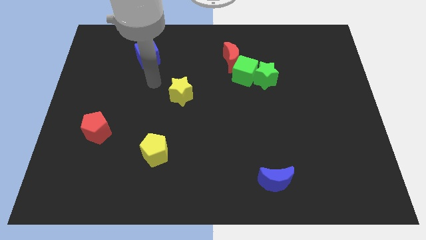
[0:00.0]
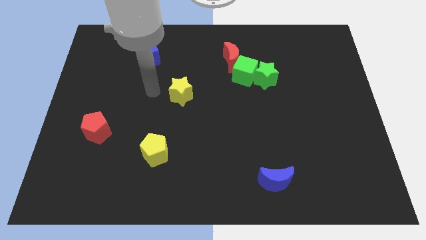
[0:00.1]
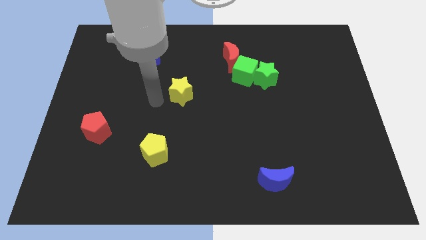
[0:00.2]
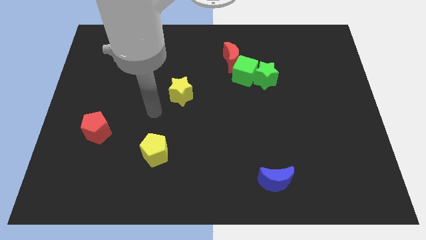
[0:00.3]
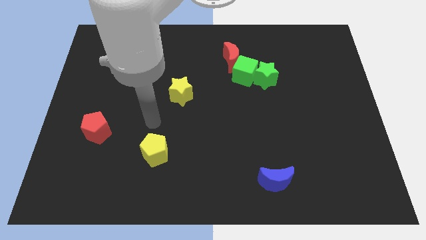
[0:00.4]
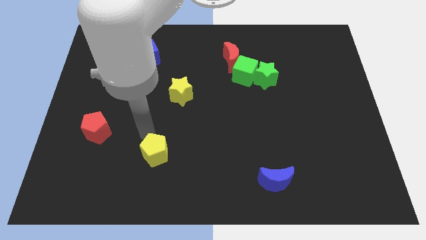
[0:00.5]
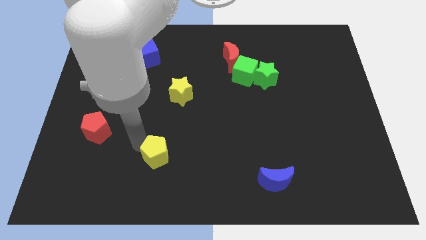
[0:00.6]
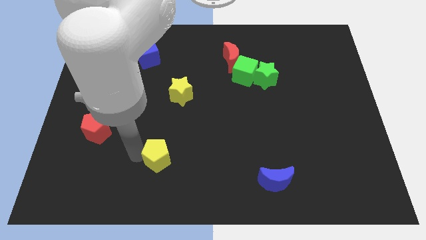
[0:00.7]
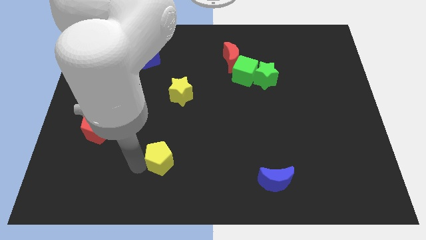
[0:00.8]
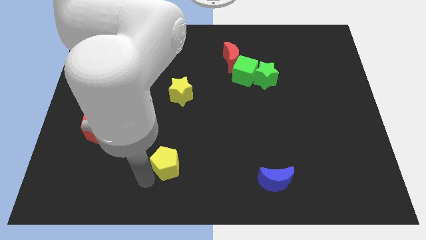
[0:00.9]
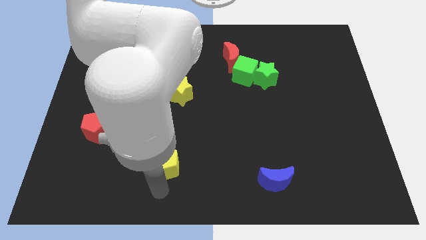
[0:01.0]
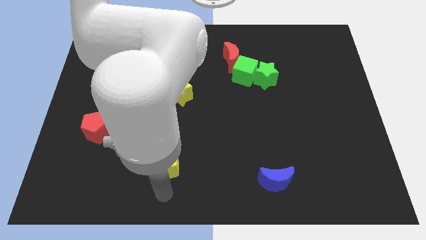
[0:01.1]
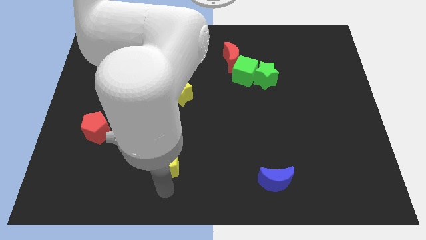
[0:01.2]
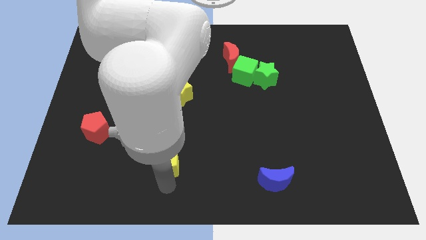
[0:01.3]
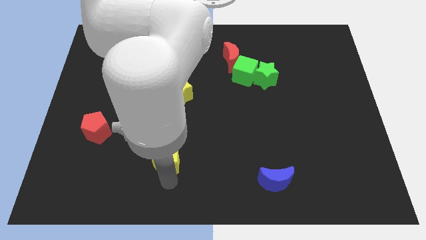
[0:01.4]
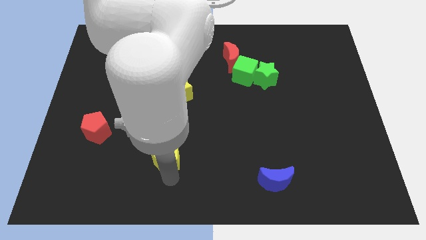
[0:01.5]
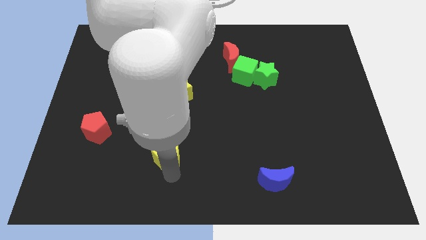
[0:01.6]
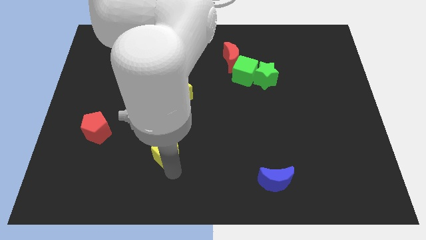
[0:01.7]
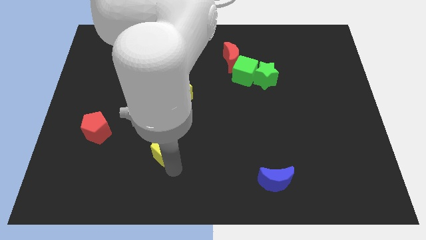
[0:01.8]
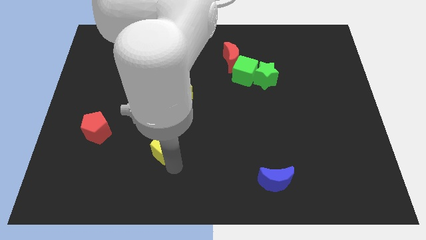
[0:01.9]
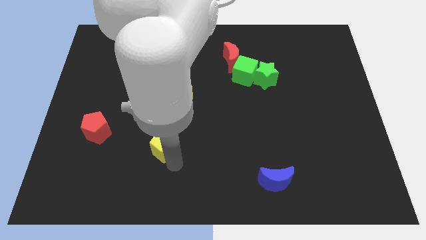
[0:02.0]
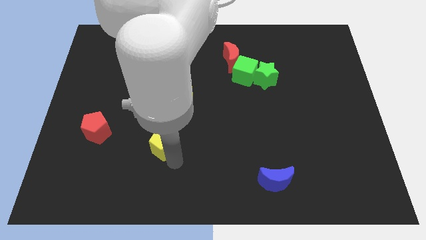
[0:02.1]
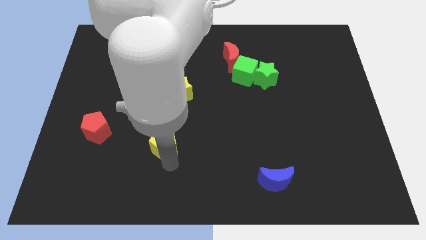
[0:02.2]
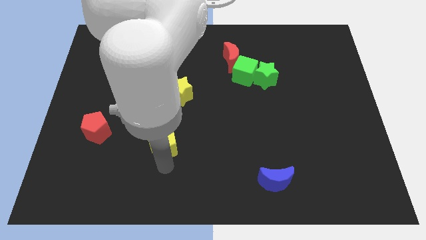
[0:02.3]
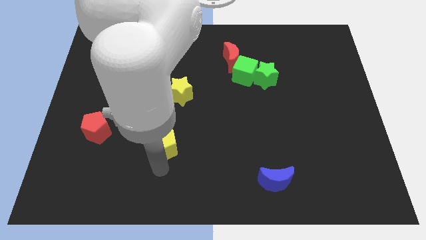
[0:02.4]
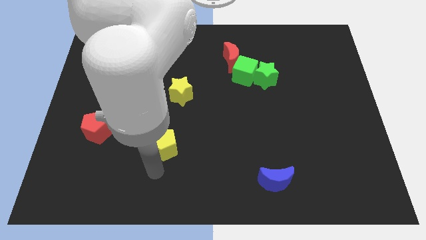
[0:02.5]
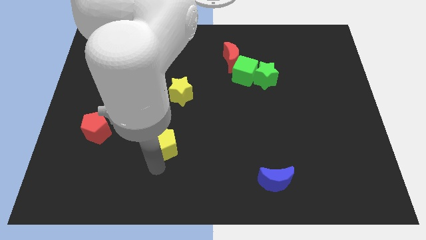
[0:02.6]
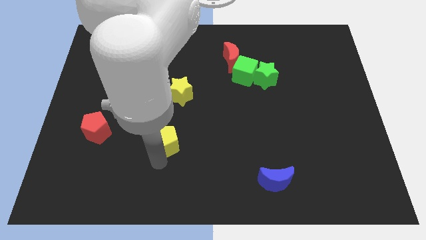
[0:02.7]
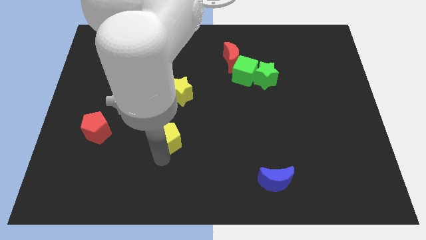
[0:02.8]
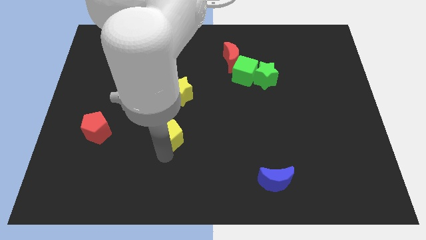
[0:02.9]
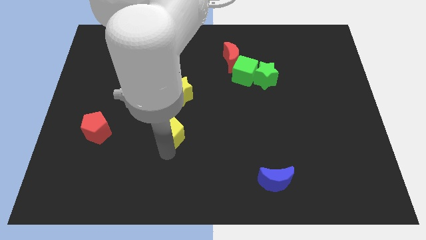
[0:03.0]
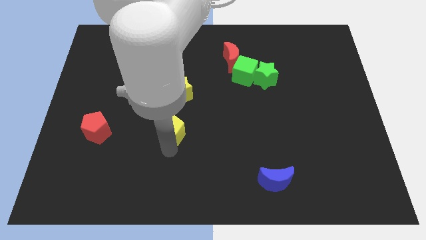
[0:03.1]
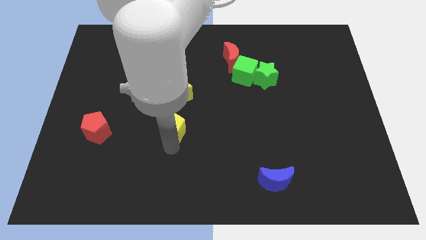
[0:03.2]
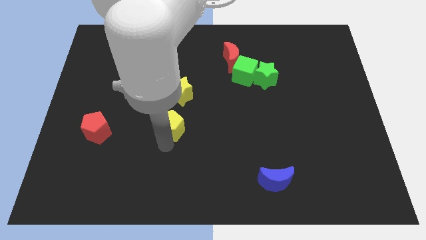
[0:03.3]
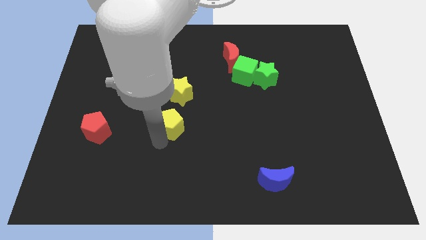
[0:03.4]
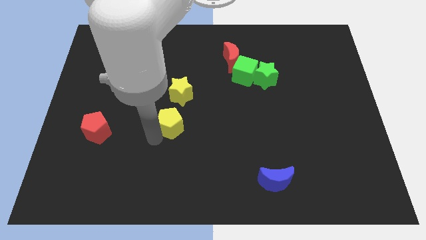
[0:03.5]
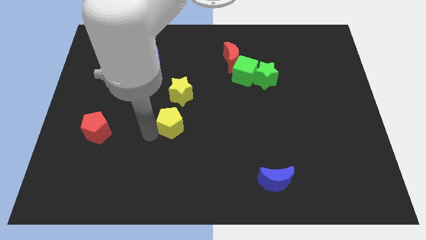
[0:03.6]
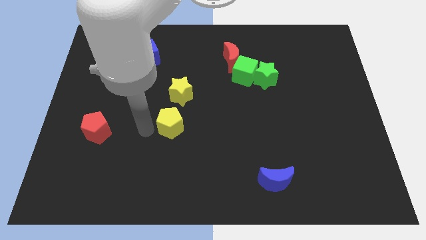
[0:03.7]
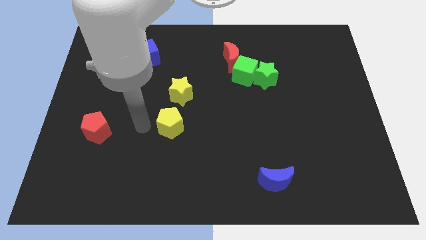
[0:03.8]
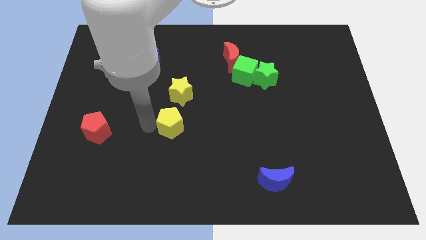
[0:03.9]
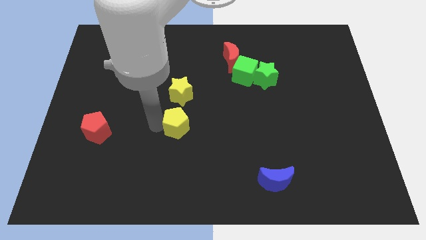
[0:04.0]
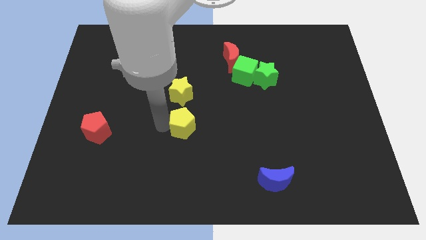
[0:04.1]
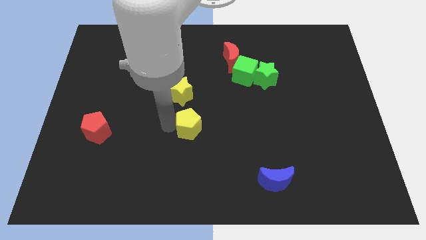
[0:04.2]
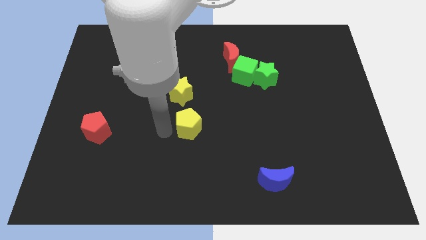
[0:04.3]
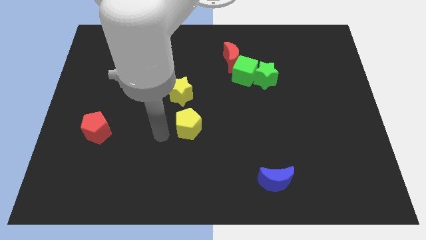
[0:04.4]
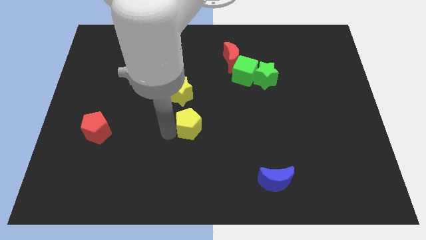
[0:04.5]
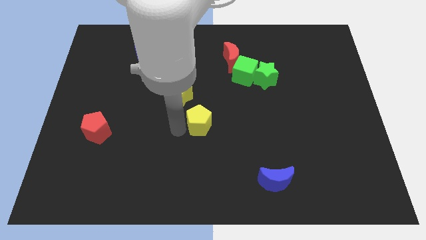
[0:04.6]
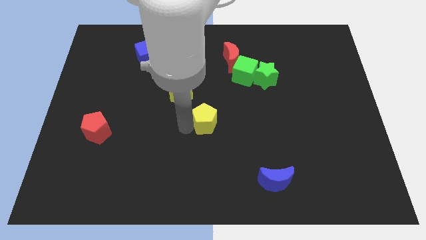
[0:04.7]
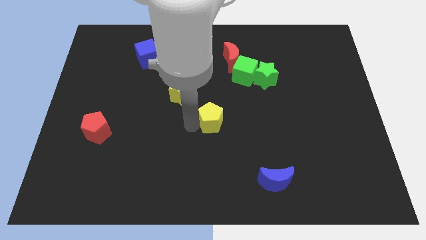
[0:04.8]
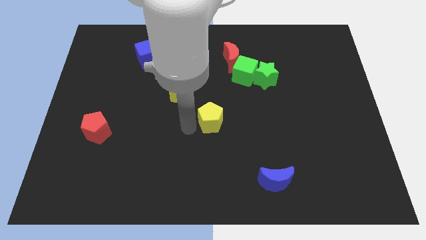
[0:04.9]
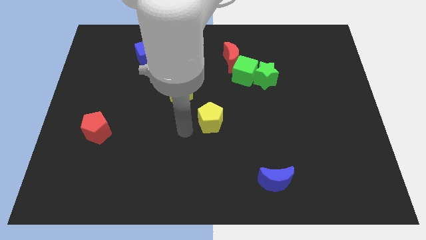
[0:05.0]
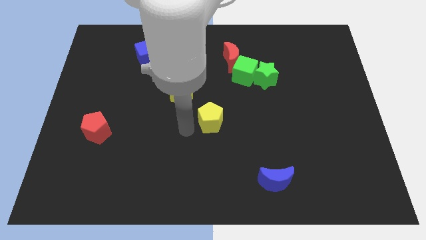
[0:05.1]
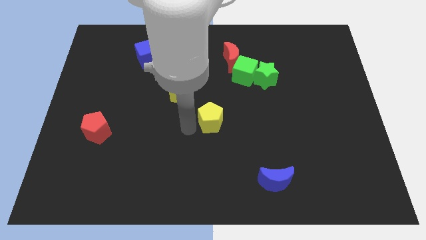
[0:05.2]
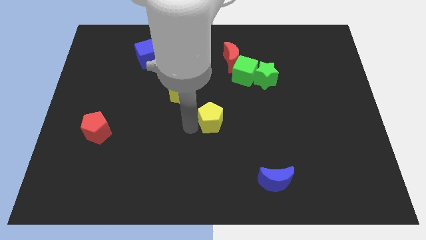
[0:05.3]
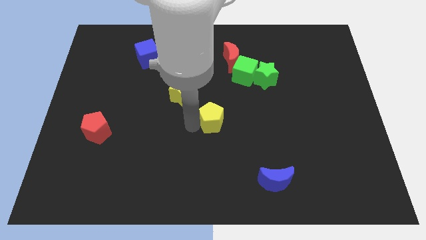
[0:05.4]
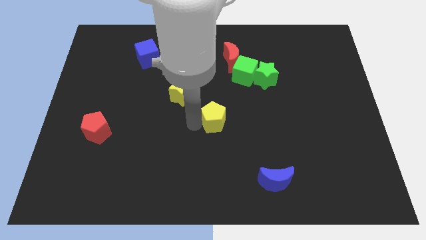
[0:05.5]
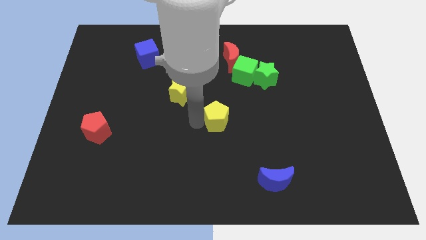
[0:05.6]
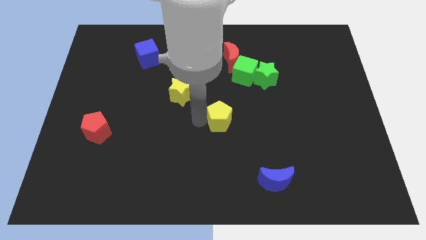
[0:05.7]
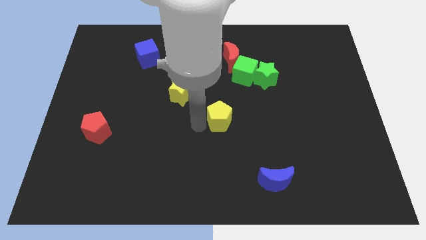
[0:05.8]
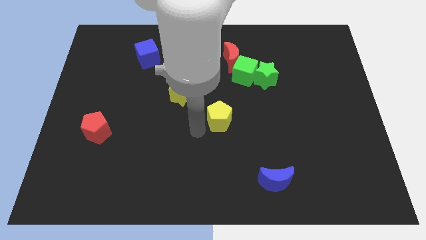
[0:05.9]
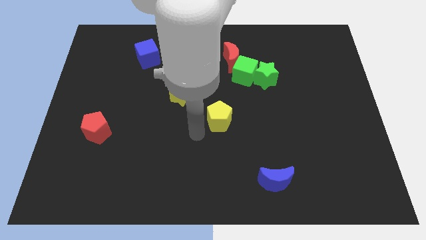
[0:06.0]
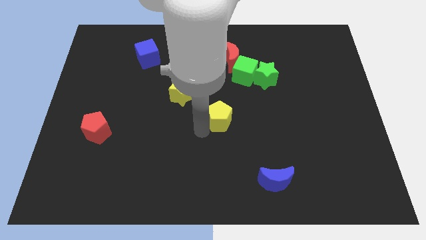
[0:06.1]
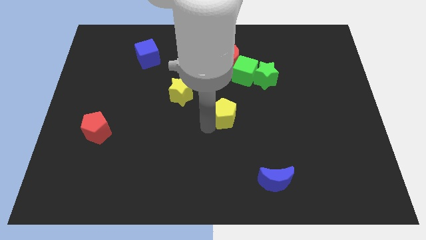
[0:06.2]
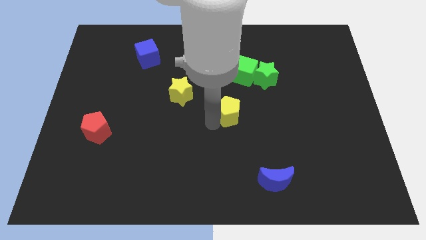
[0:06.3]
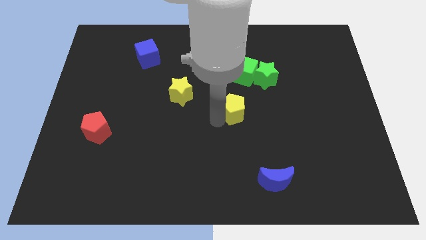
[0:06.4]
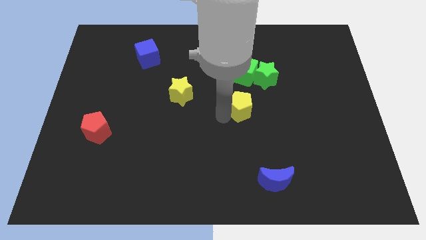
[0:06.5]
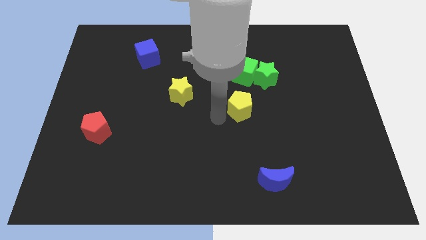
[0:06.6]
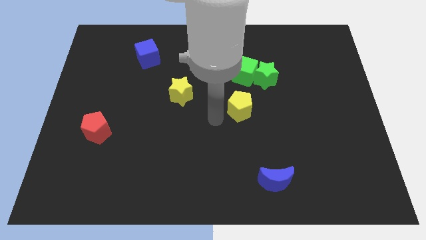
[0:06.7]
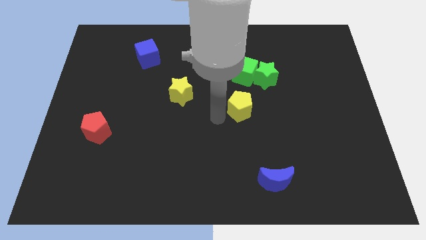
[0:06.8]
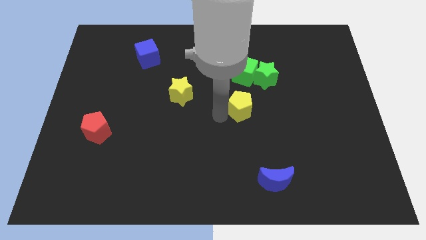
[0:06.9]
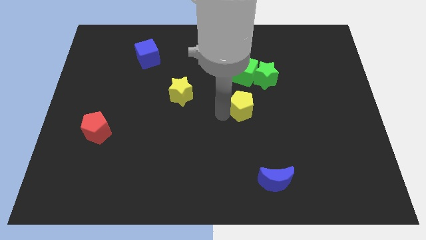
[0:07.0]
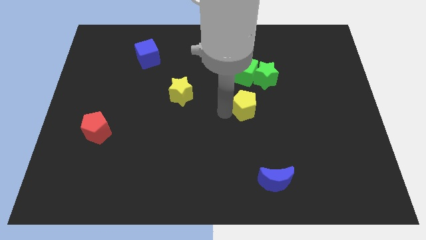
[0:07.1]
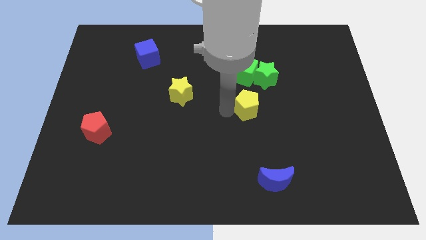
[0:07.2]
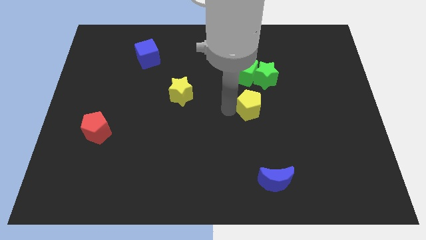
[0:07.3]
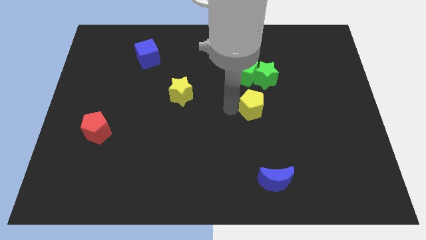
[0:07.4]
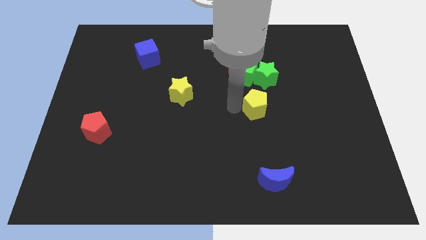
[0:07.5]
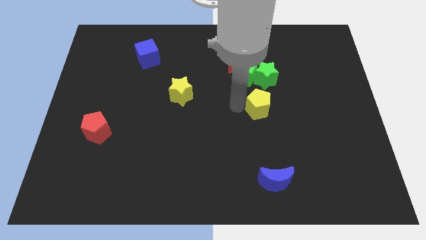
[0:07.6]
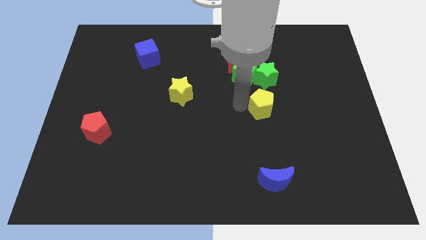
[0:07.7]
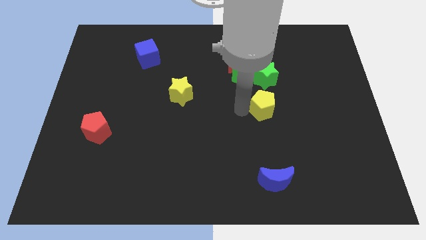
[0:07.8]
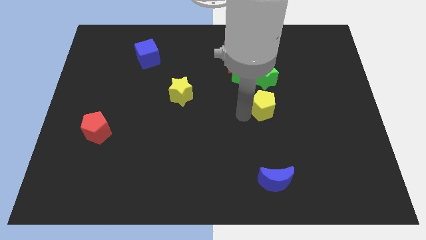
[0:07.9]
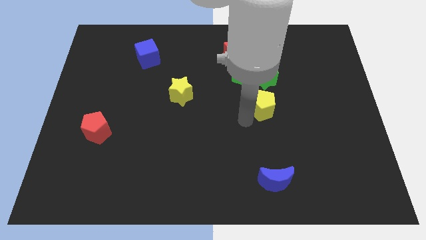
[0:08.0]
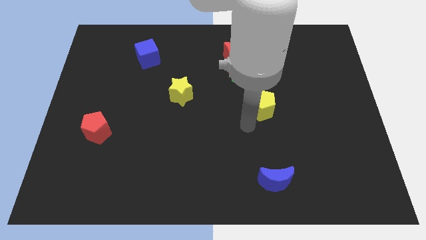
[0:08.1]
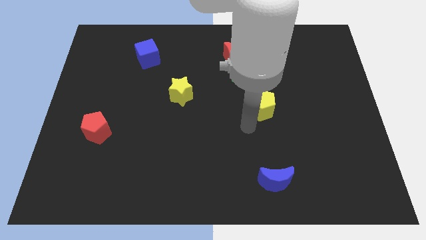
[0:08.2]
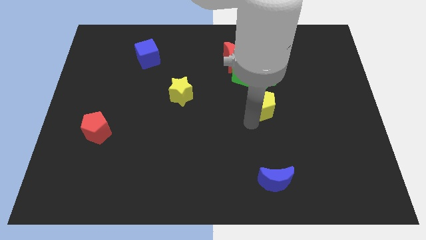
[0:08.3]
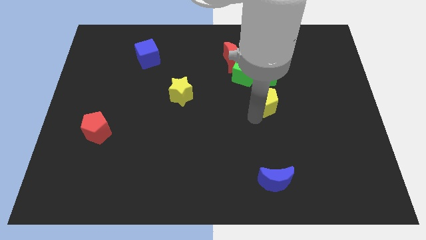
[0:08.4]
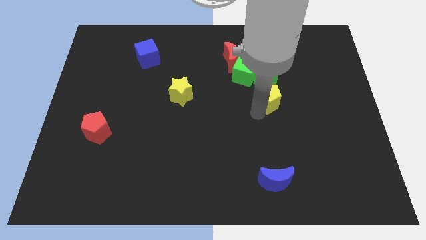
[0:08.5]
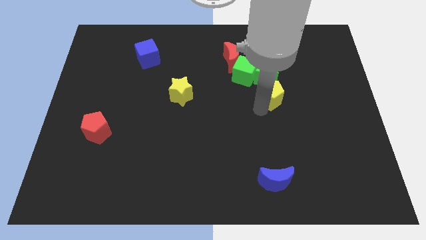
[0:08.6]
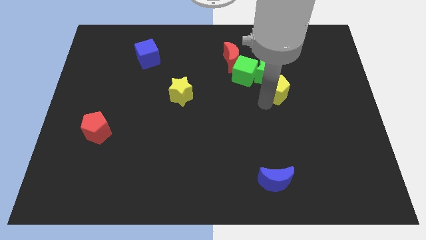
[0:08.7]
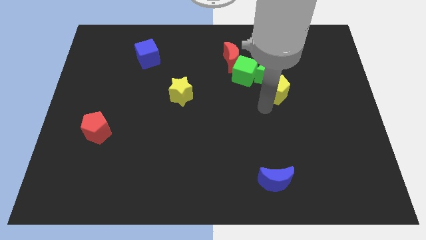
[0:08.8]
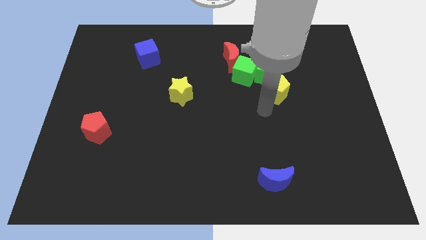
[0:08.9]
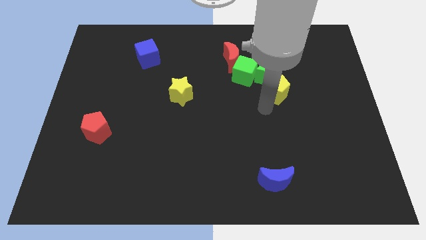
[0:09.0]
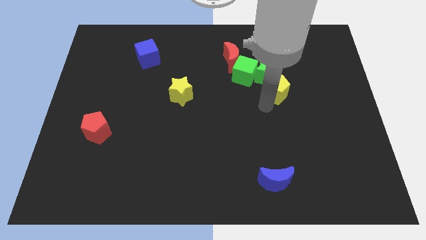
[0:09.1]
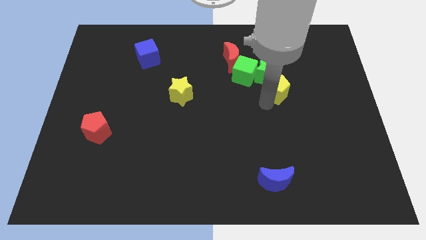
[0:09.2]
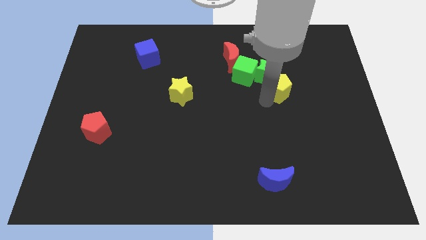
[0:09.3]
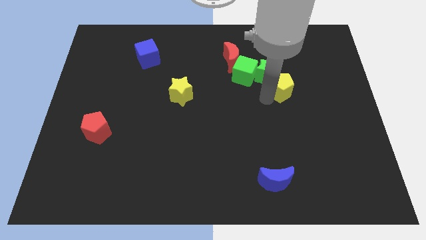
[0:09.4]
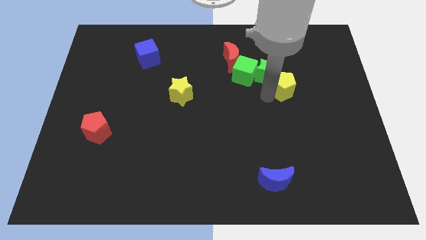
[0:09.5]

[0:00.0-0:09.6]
push the yellow pentagon to the right side of the green cube
